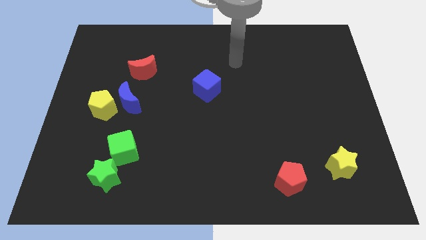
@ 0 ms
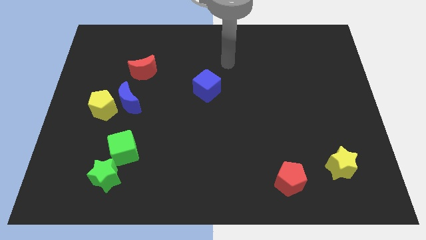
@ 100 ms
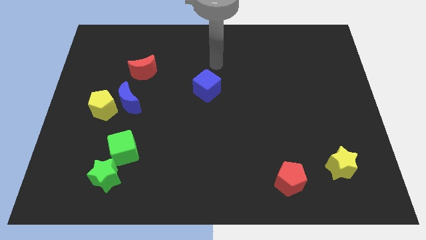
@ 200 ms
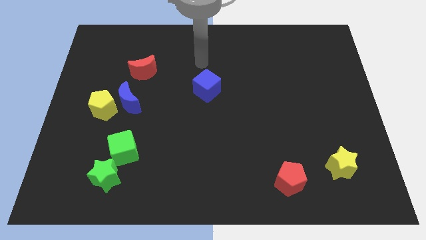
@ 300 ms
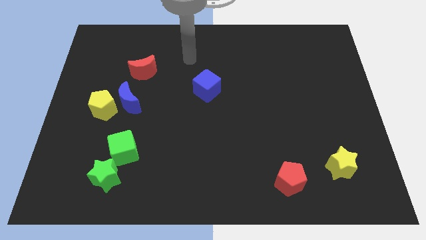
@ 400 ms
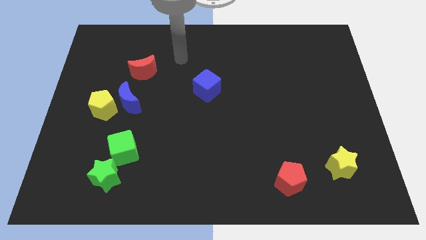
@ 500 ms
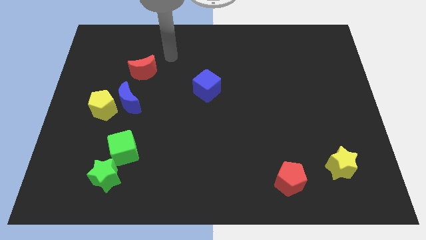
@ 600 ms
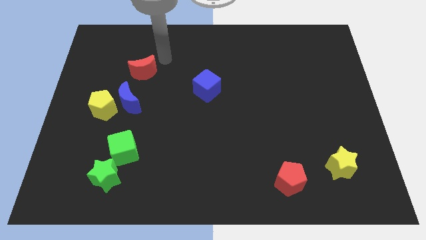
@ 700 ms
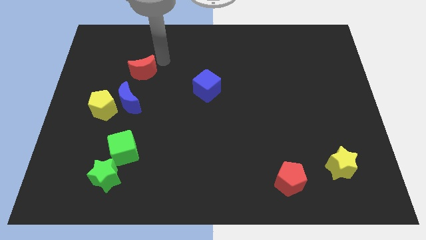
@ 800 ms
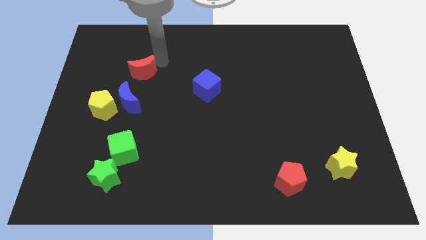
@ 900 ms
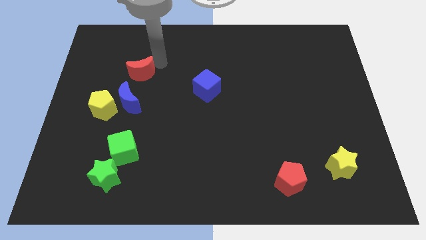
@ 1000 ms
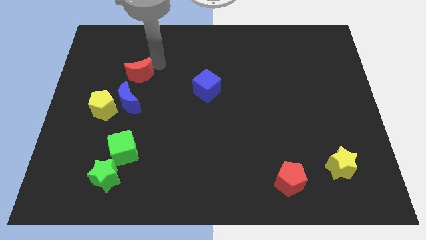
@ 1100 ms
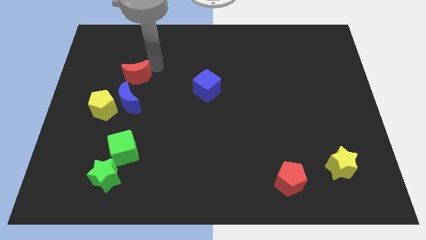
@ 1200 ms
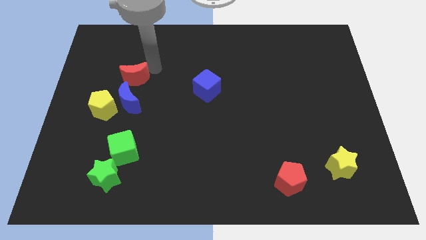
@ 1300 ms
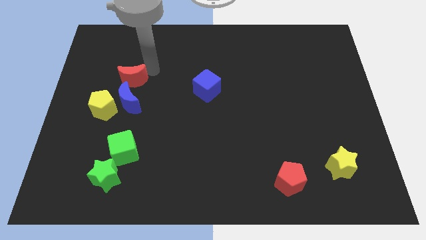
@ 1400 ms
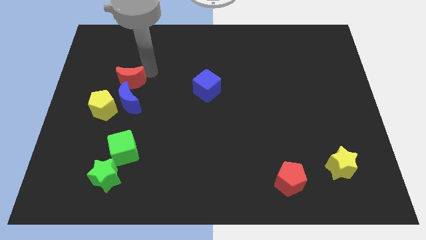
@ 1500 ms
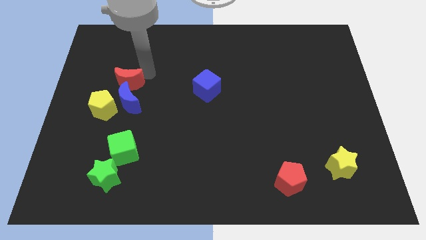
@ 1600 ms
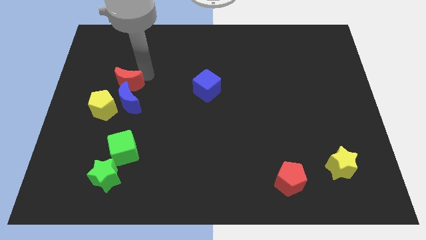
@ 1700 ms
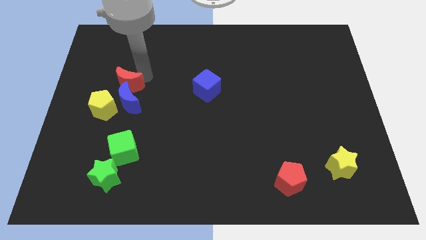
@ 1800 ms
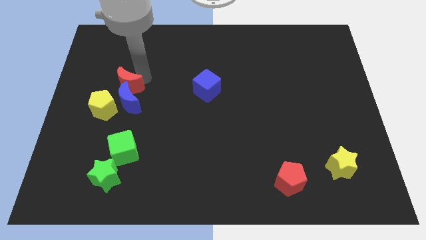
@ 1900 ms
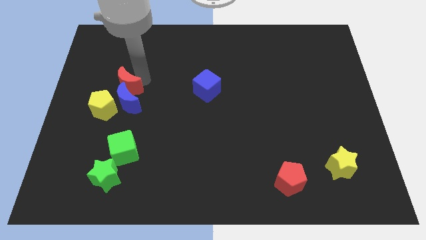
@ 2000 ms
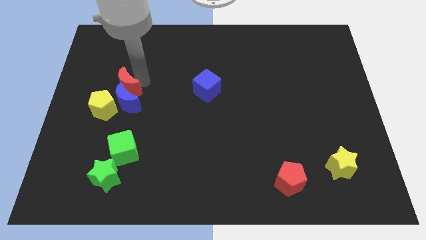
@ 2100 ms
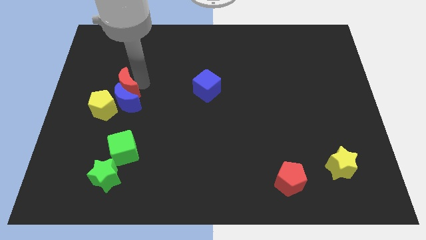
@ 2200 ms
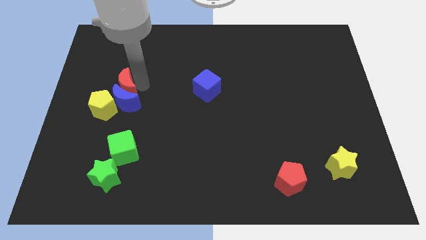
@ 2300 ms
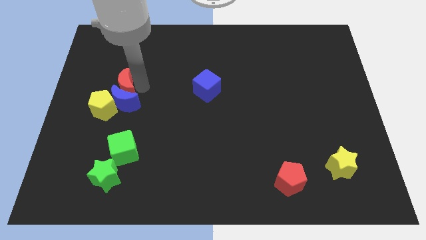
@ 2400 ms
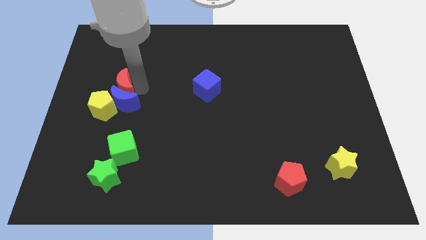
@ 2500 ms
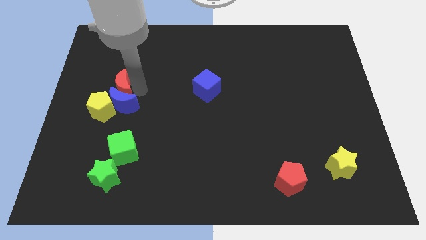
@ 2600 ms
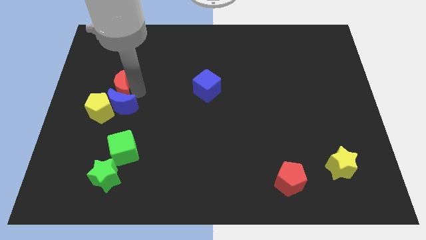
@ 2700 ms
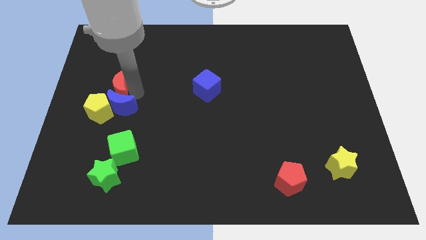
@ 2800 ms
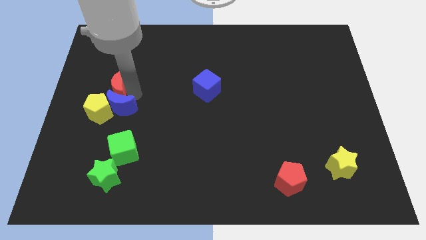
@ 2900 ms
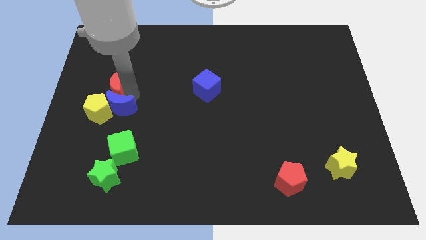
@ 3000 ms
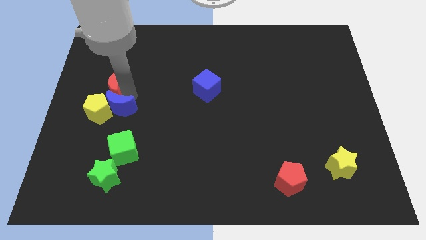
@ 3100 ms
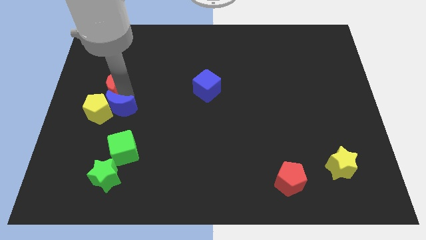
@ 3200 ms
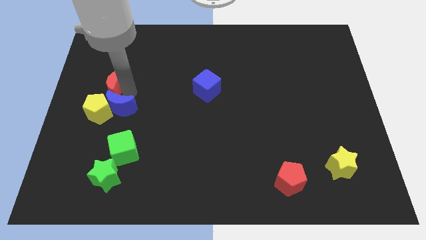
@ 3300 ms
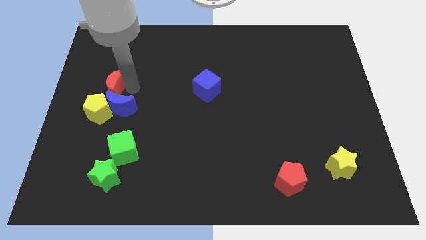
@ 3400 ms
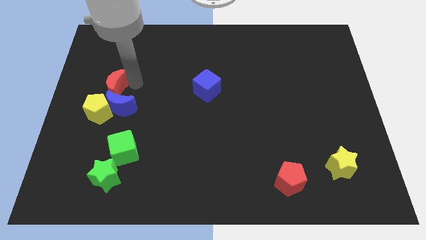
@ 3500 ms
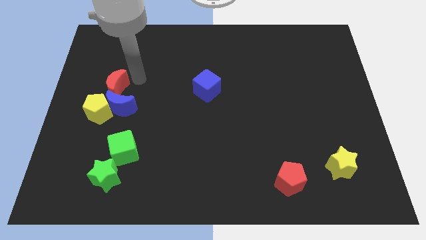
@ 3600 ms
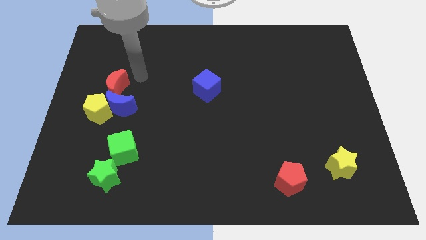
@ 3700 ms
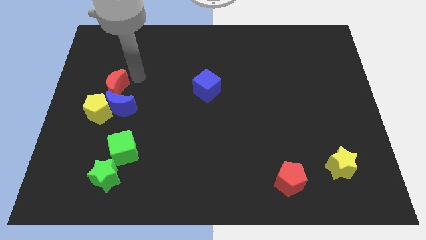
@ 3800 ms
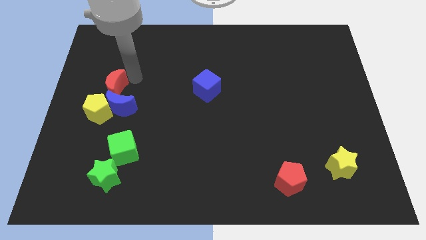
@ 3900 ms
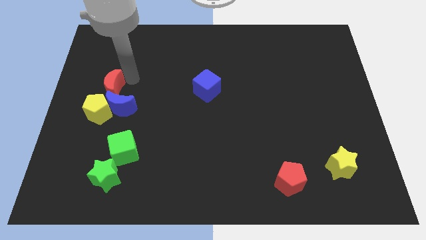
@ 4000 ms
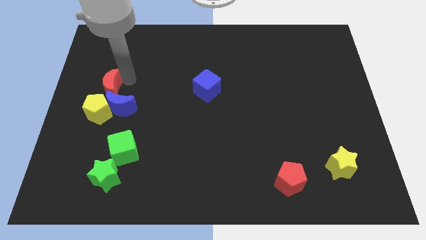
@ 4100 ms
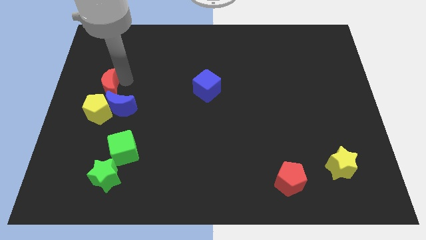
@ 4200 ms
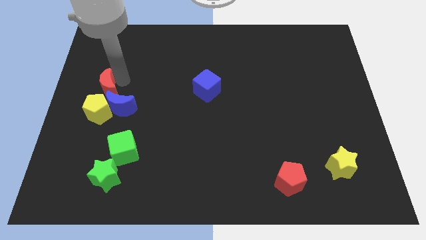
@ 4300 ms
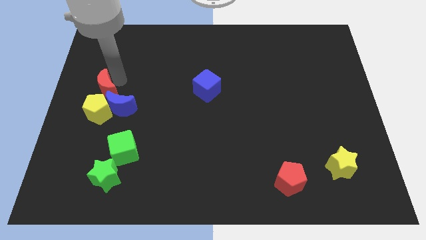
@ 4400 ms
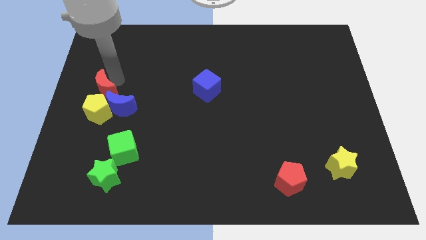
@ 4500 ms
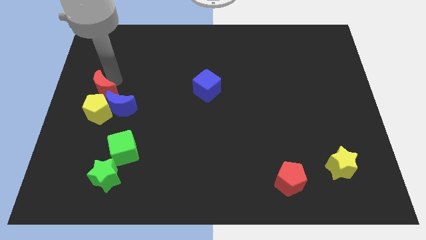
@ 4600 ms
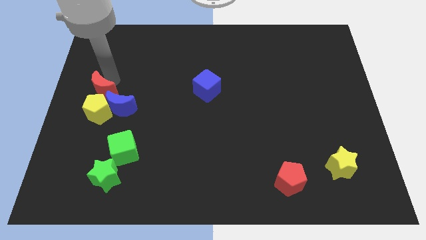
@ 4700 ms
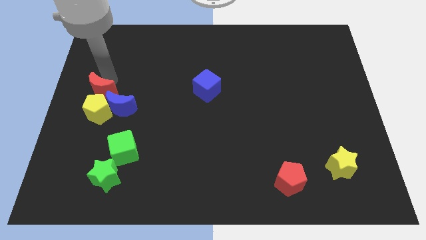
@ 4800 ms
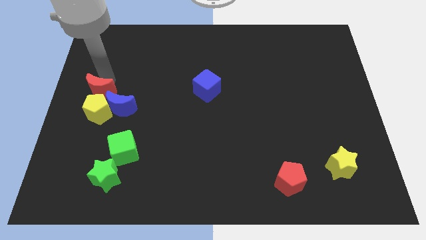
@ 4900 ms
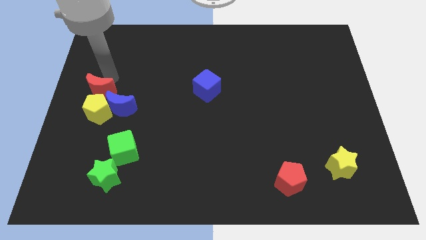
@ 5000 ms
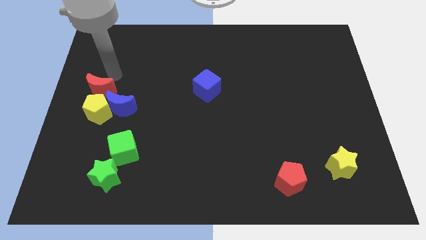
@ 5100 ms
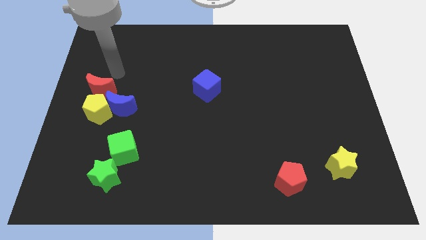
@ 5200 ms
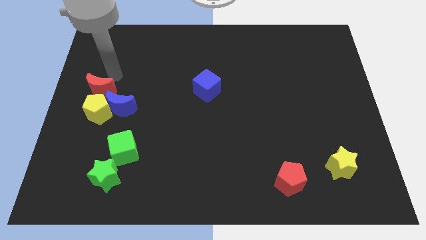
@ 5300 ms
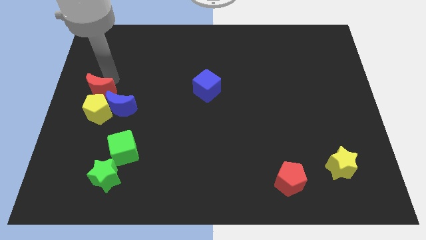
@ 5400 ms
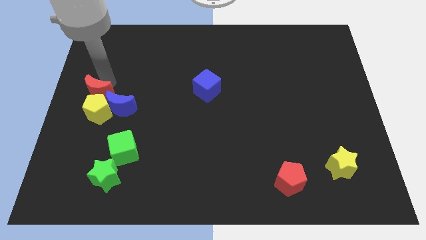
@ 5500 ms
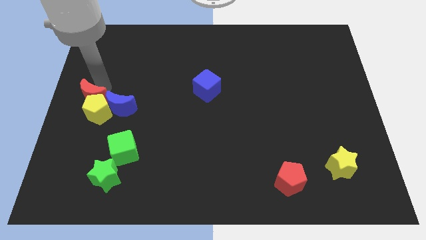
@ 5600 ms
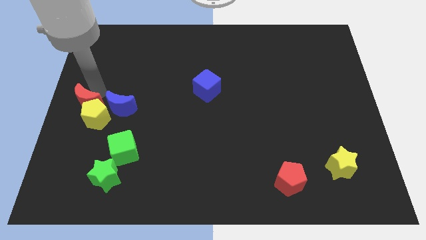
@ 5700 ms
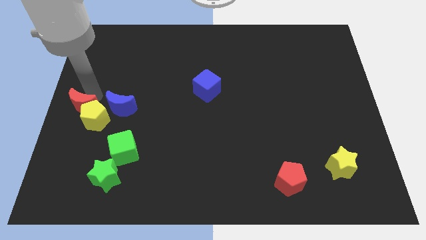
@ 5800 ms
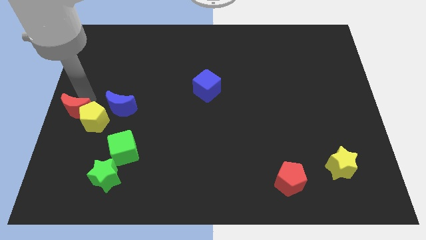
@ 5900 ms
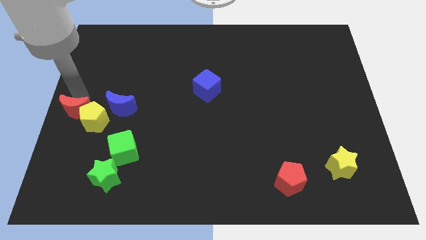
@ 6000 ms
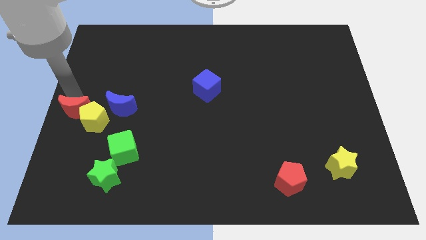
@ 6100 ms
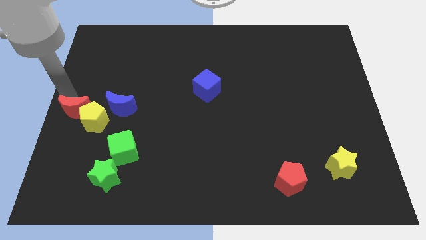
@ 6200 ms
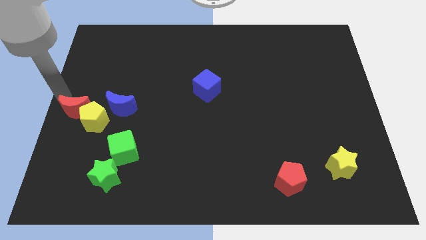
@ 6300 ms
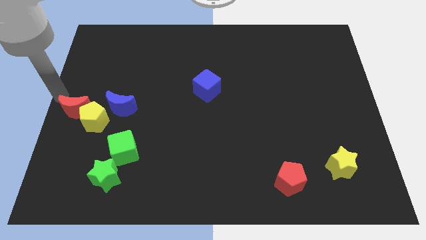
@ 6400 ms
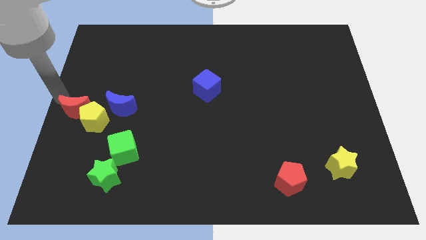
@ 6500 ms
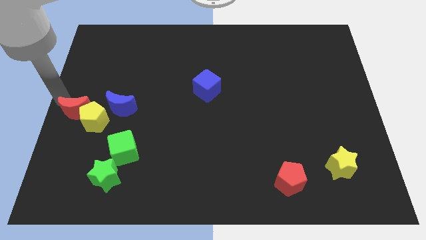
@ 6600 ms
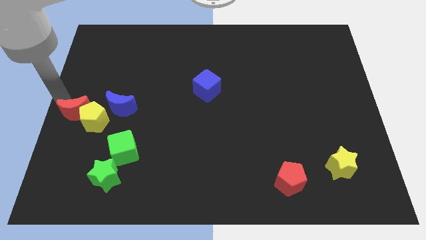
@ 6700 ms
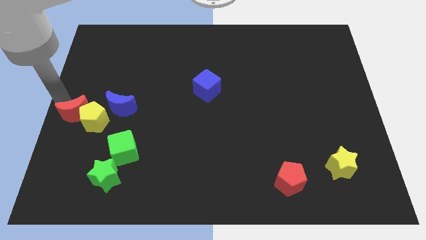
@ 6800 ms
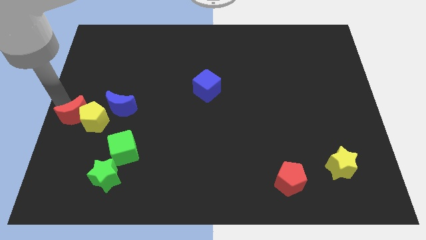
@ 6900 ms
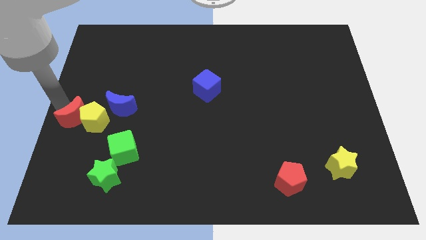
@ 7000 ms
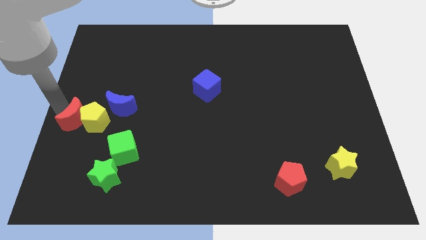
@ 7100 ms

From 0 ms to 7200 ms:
slide the red moon diagonally down and to the left of the blue moon

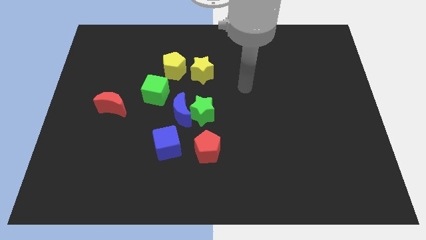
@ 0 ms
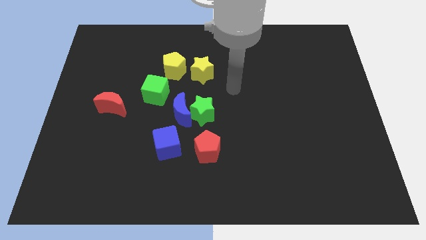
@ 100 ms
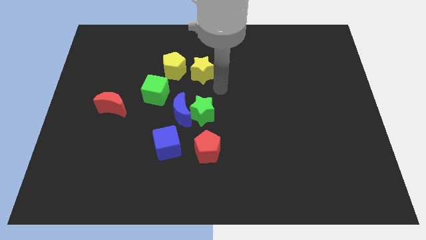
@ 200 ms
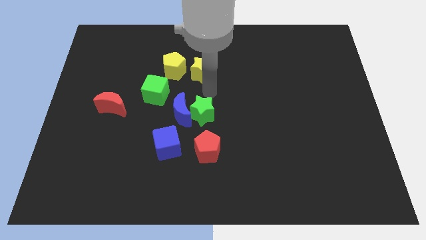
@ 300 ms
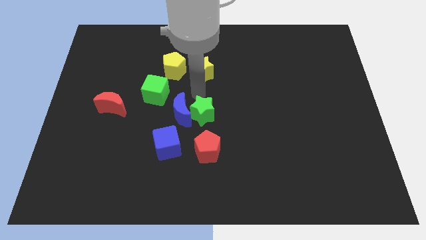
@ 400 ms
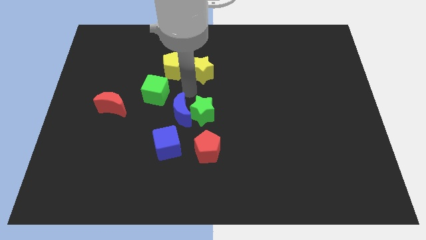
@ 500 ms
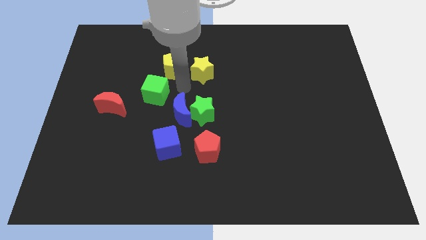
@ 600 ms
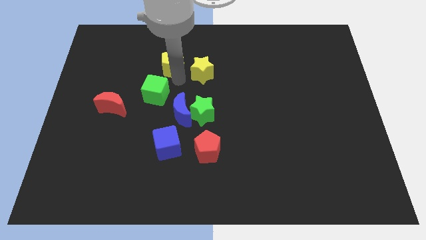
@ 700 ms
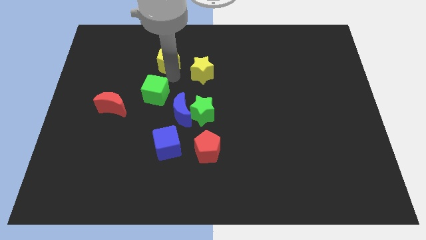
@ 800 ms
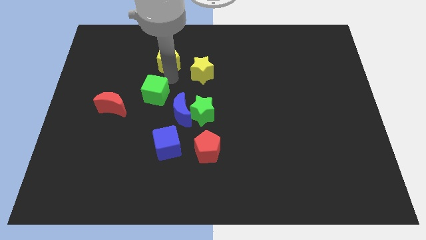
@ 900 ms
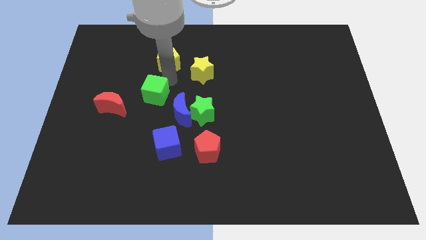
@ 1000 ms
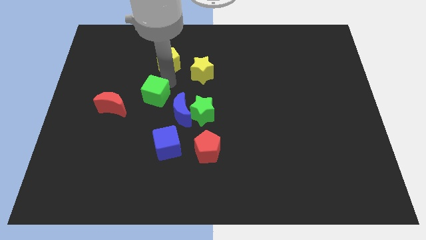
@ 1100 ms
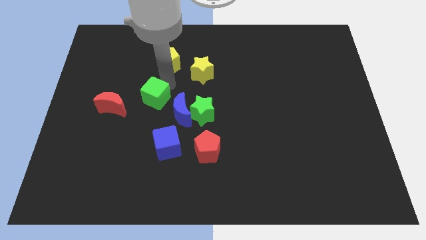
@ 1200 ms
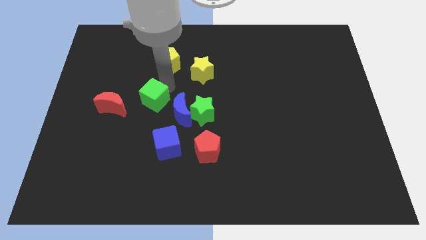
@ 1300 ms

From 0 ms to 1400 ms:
push the green cube to the left side of the blue moon
